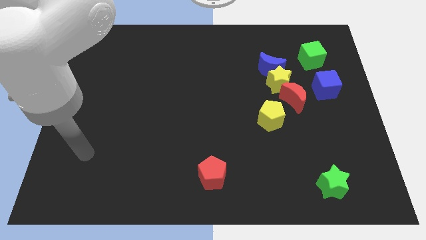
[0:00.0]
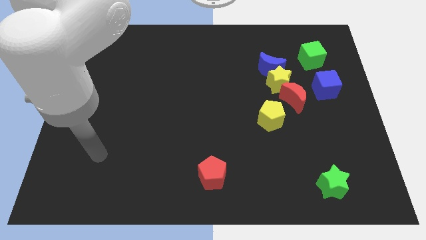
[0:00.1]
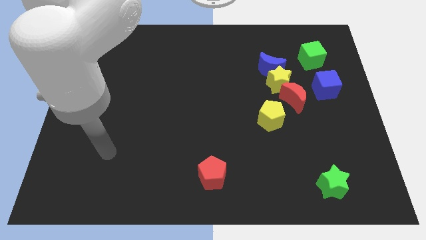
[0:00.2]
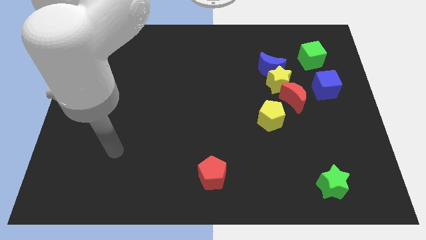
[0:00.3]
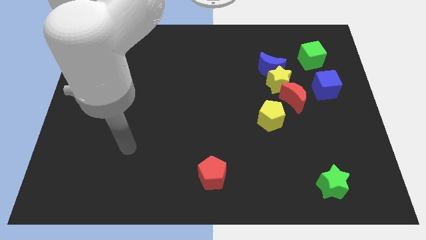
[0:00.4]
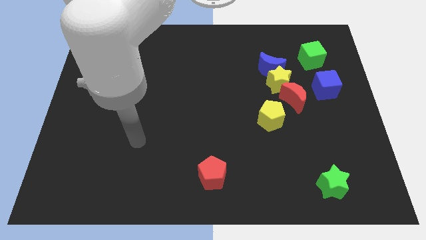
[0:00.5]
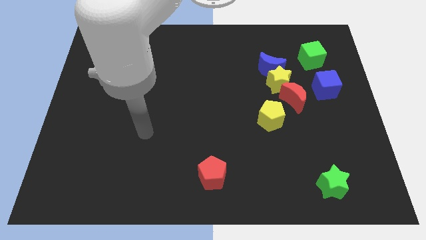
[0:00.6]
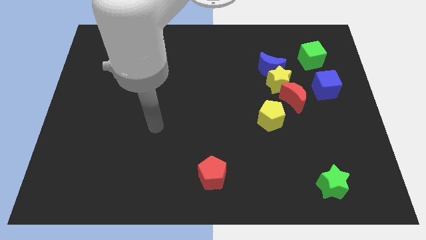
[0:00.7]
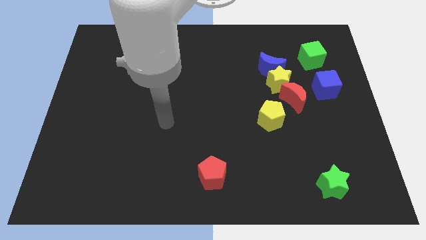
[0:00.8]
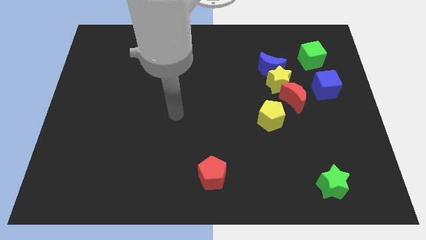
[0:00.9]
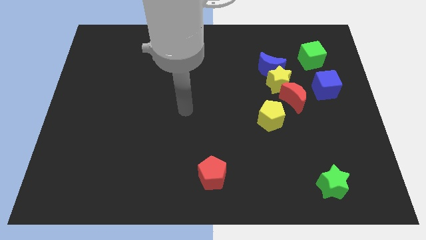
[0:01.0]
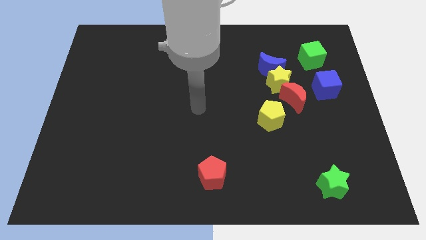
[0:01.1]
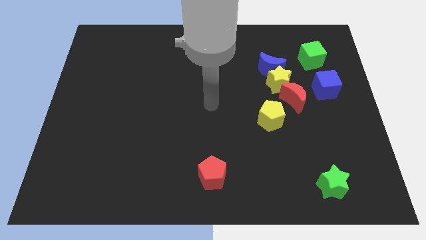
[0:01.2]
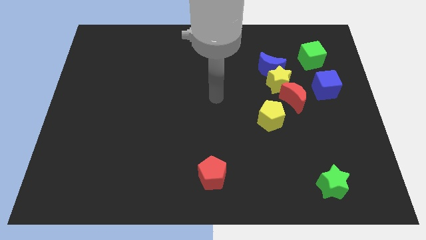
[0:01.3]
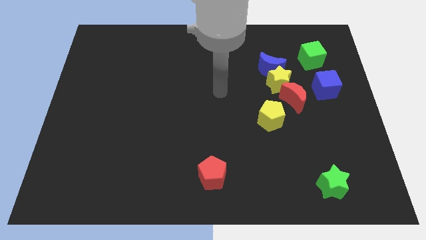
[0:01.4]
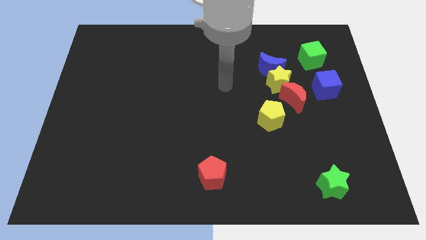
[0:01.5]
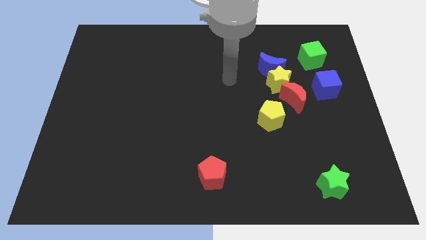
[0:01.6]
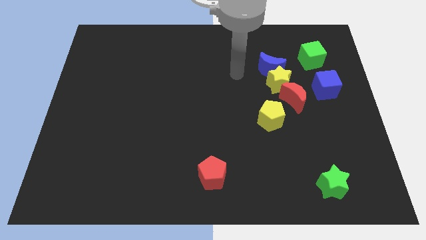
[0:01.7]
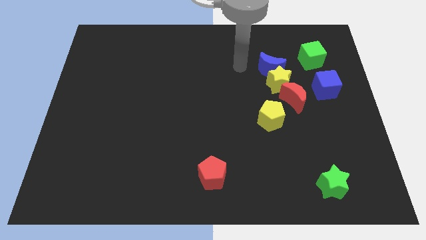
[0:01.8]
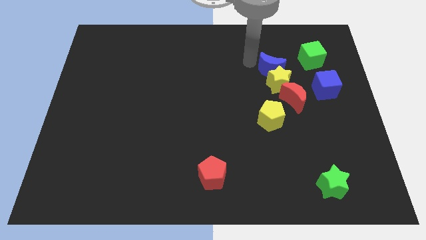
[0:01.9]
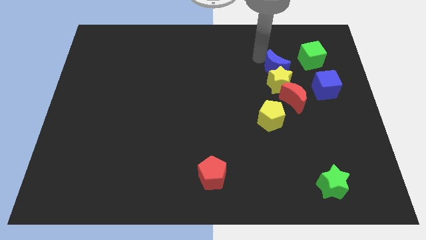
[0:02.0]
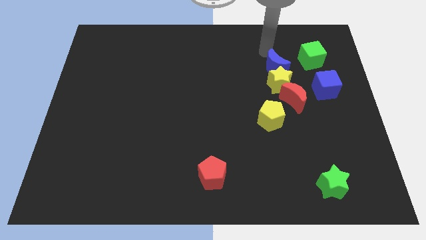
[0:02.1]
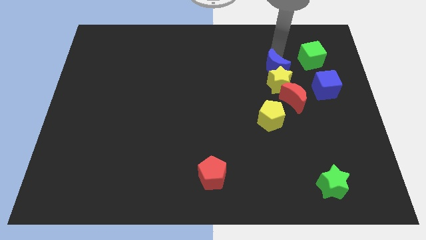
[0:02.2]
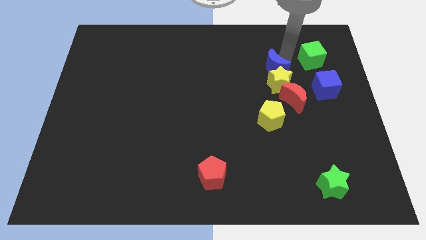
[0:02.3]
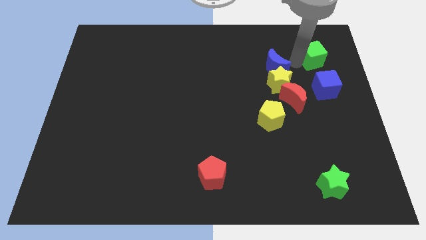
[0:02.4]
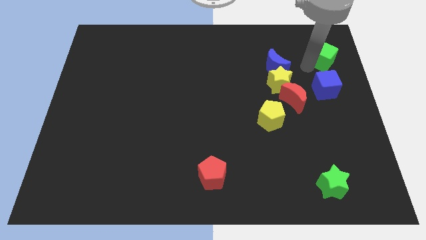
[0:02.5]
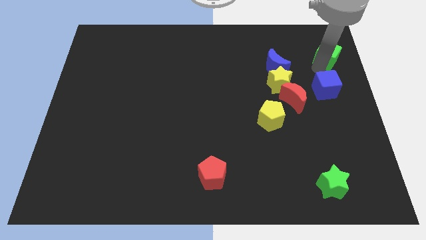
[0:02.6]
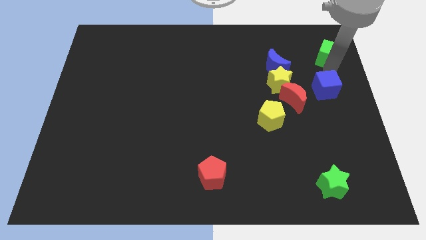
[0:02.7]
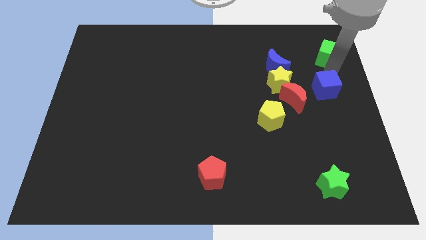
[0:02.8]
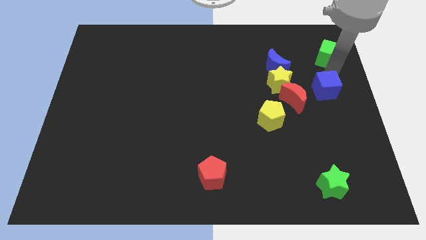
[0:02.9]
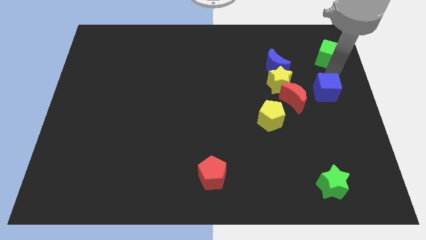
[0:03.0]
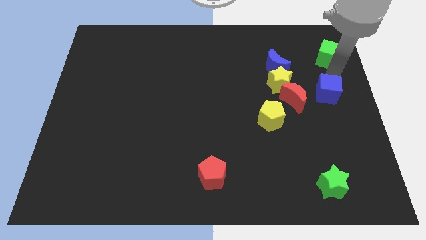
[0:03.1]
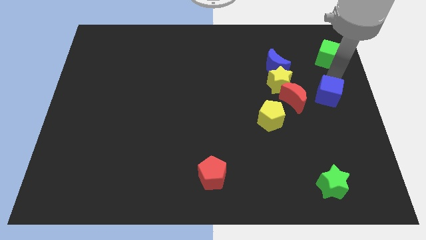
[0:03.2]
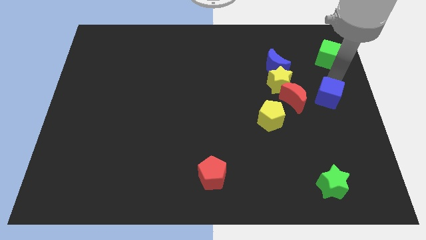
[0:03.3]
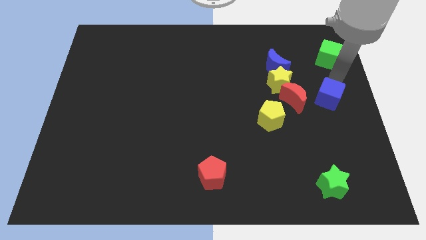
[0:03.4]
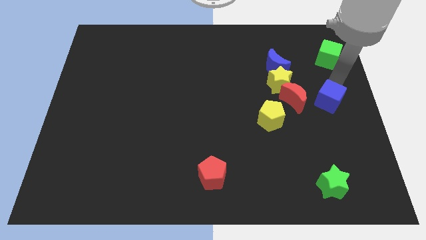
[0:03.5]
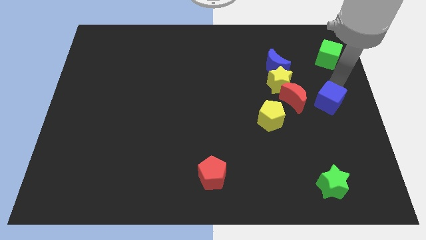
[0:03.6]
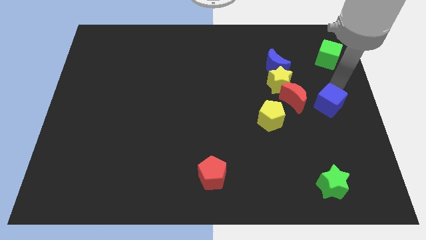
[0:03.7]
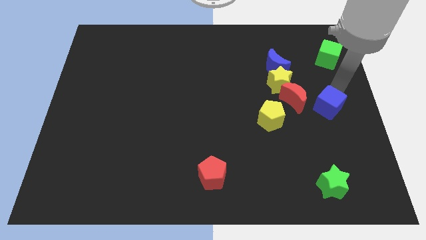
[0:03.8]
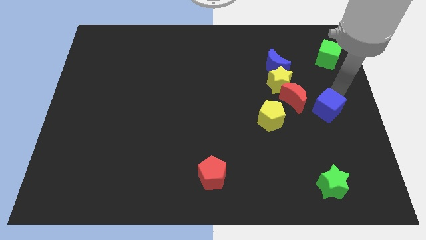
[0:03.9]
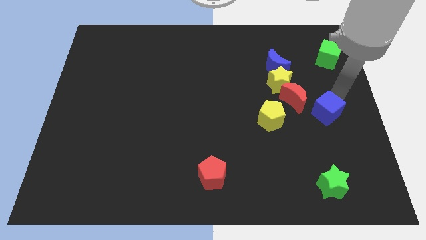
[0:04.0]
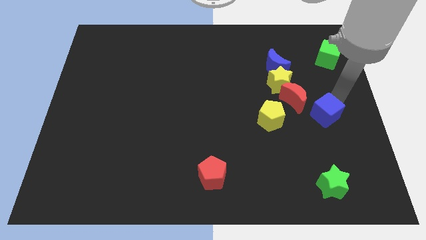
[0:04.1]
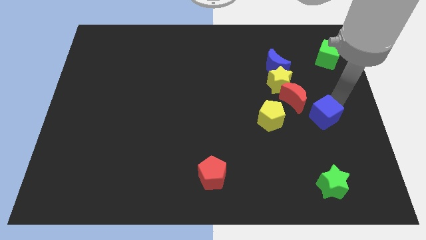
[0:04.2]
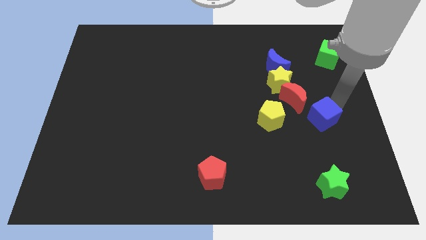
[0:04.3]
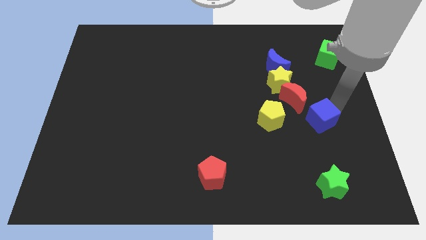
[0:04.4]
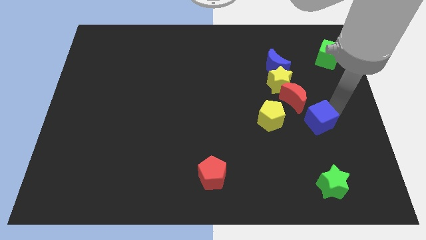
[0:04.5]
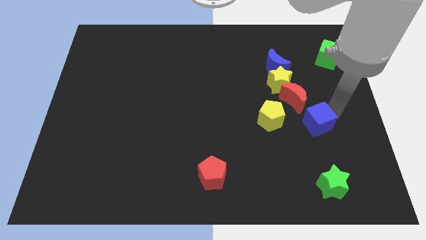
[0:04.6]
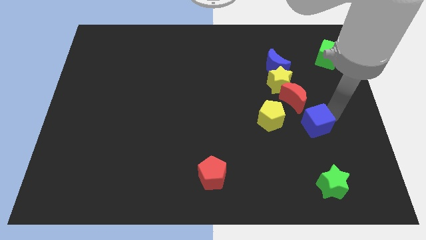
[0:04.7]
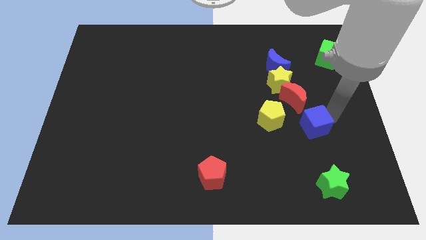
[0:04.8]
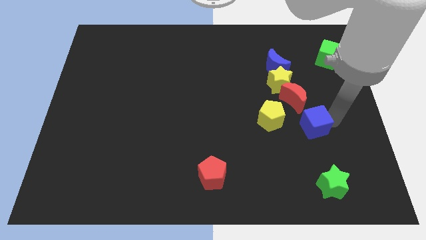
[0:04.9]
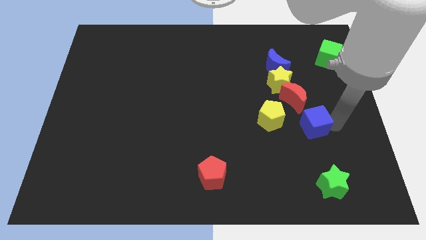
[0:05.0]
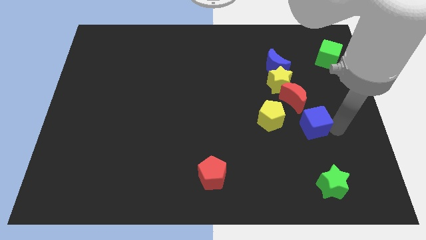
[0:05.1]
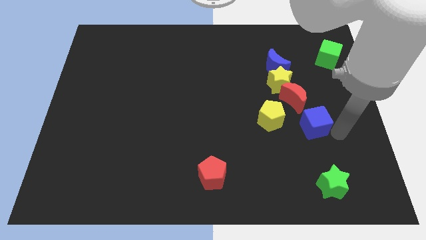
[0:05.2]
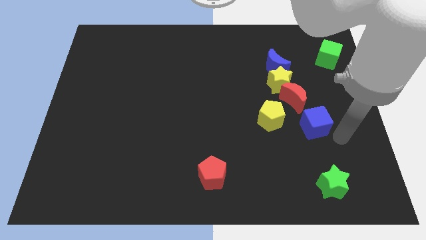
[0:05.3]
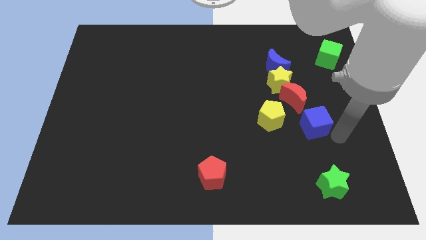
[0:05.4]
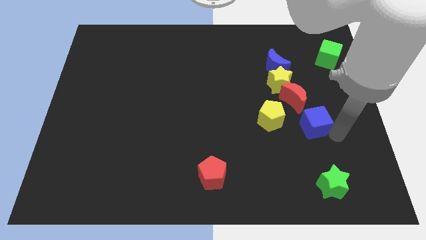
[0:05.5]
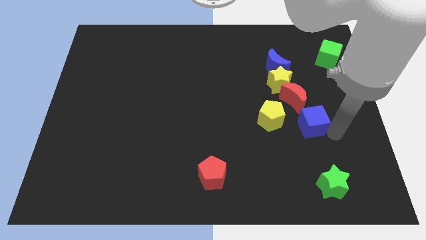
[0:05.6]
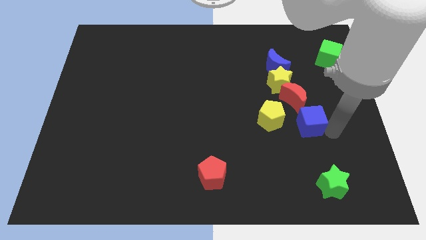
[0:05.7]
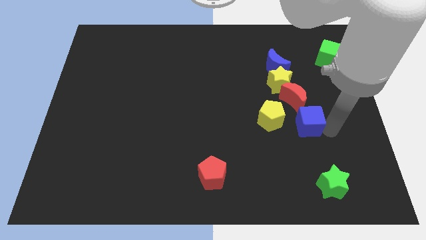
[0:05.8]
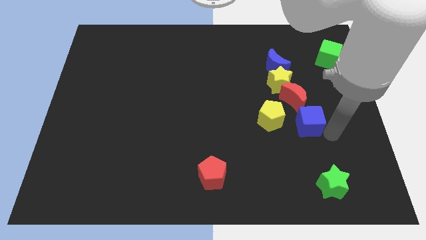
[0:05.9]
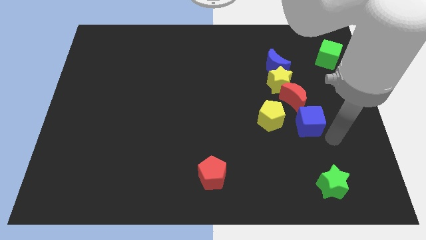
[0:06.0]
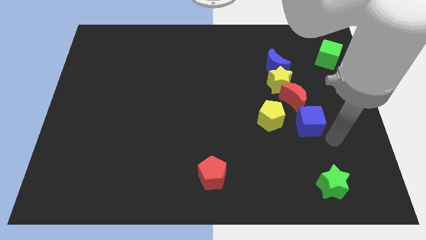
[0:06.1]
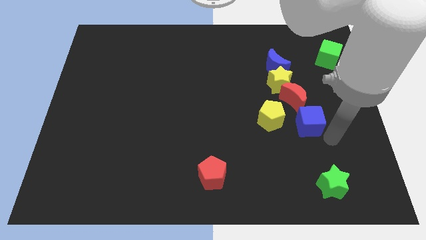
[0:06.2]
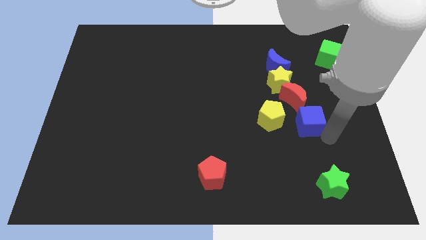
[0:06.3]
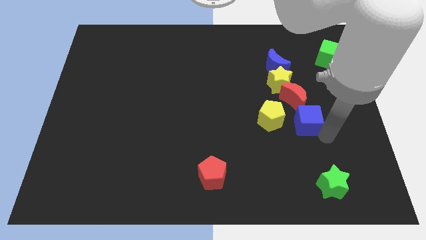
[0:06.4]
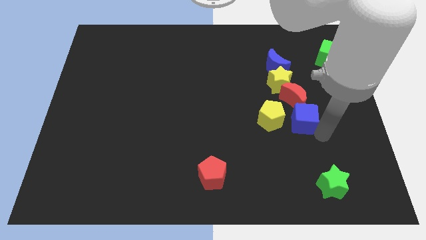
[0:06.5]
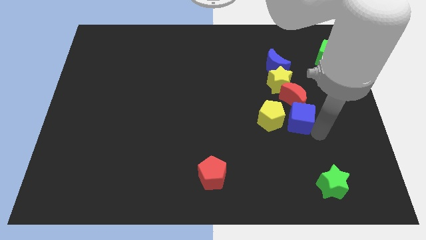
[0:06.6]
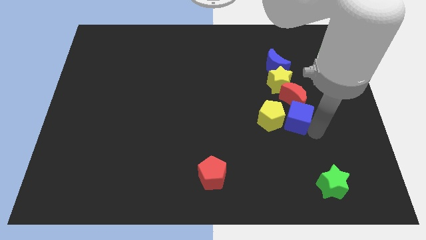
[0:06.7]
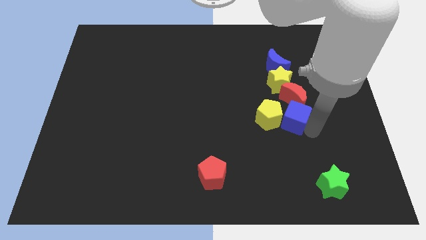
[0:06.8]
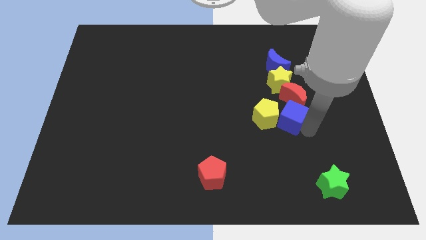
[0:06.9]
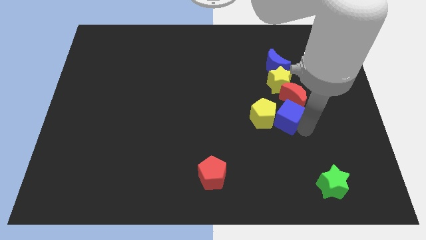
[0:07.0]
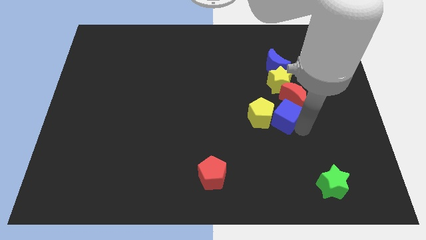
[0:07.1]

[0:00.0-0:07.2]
move the blue cube left somewhat

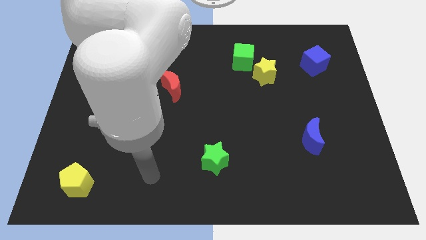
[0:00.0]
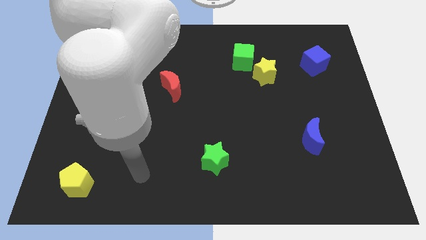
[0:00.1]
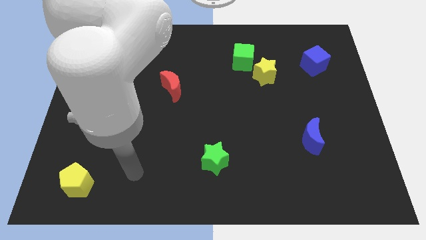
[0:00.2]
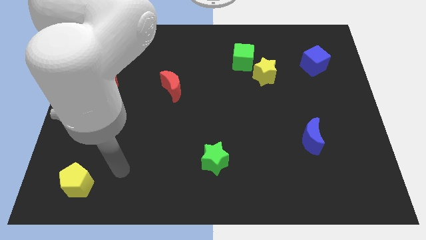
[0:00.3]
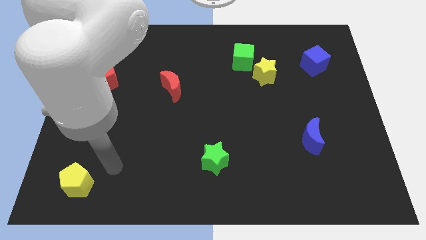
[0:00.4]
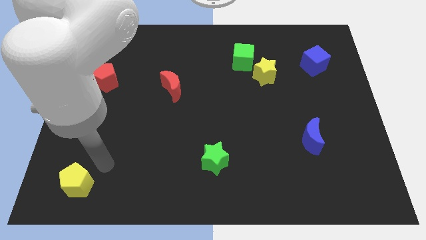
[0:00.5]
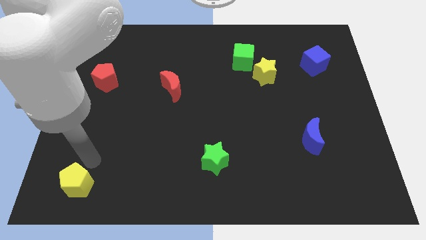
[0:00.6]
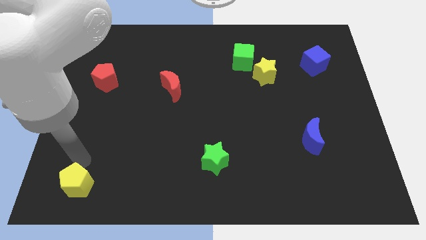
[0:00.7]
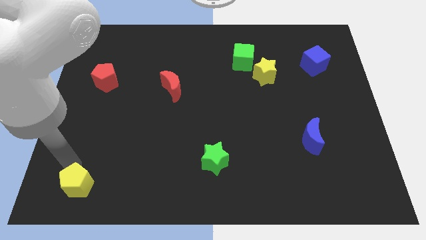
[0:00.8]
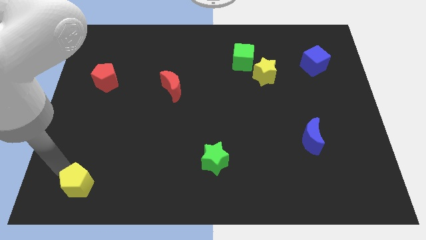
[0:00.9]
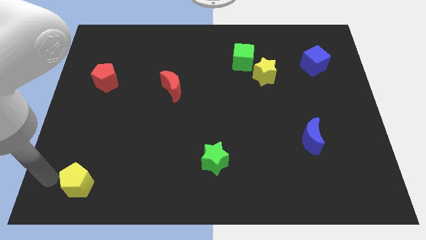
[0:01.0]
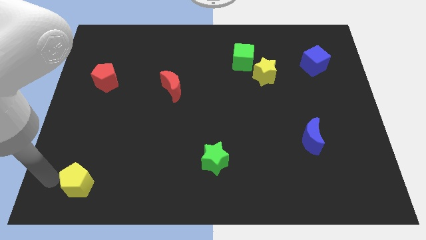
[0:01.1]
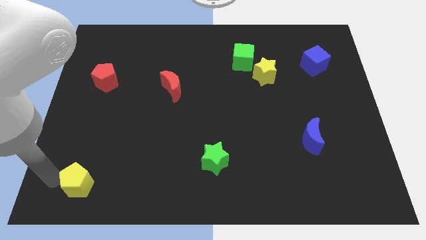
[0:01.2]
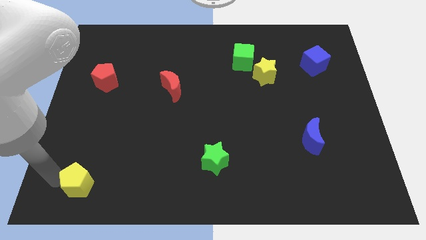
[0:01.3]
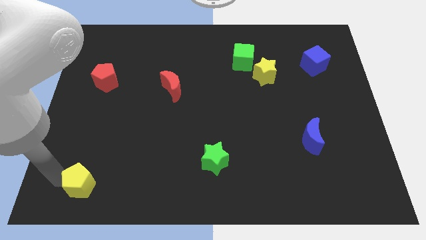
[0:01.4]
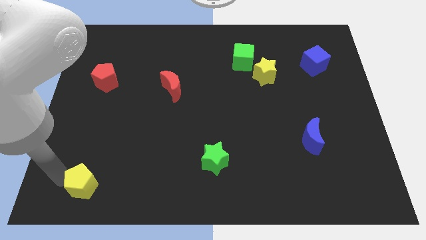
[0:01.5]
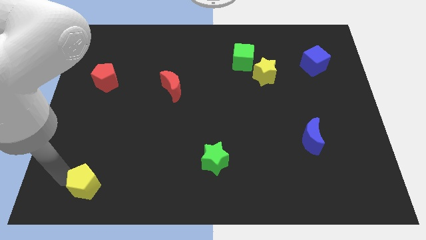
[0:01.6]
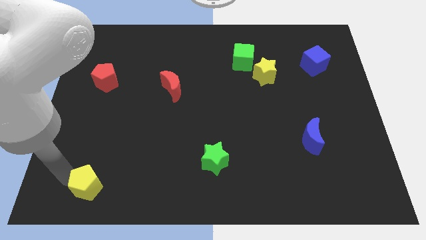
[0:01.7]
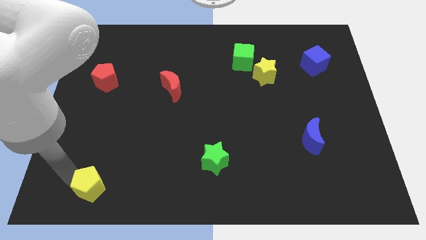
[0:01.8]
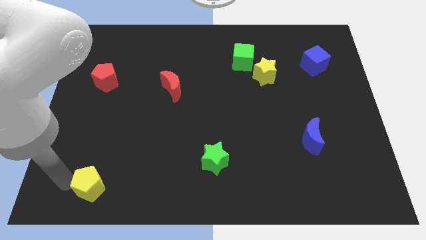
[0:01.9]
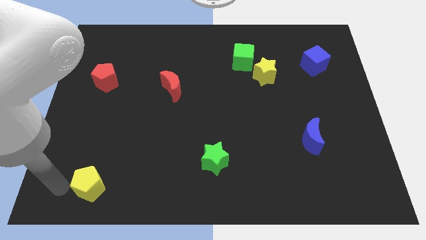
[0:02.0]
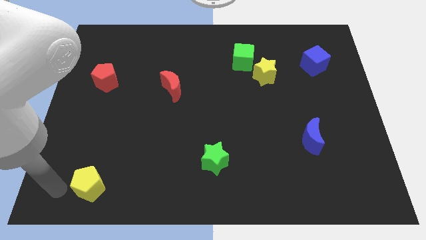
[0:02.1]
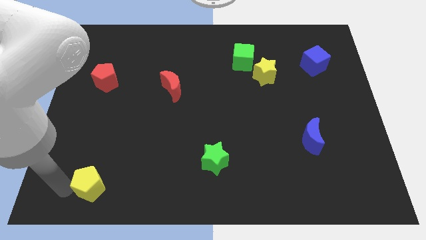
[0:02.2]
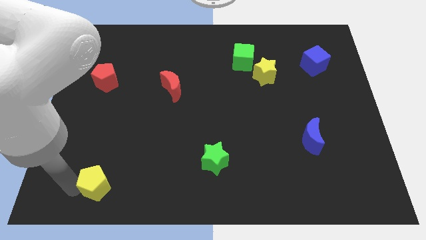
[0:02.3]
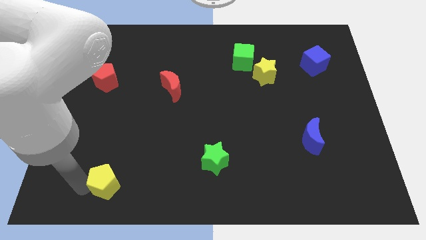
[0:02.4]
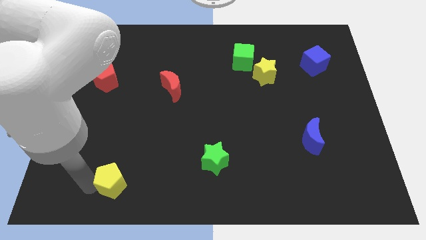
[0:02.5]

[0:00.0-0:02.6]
slightly move the yellow pentagon right
